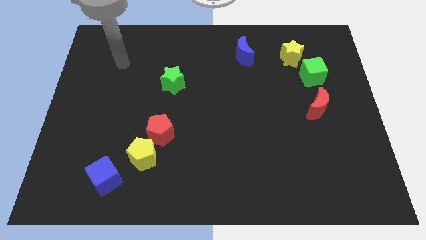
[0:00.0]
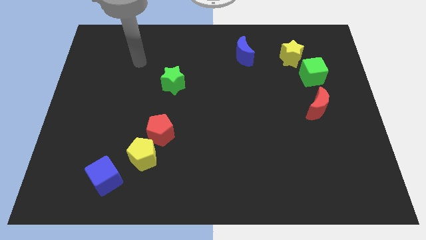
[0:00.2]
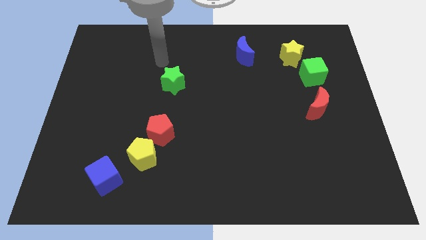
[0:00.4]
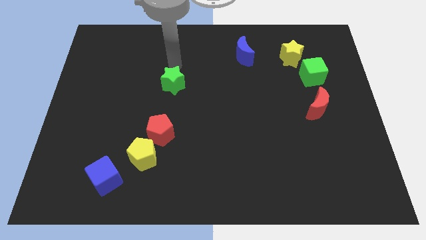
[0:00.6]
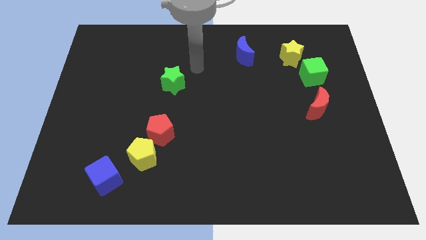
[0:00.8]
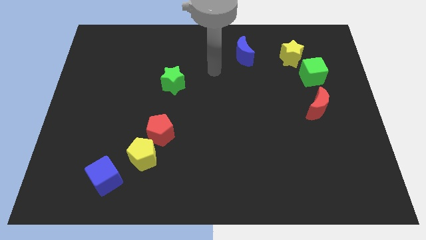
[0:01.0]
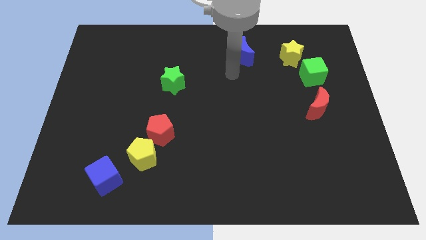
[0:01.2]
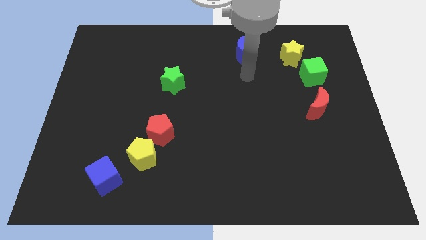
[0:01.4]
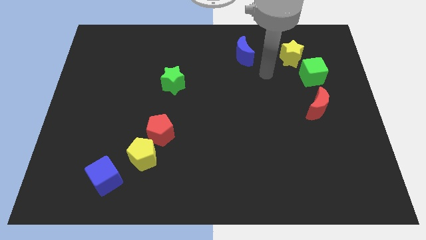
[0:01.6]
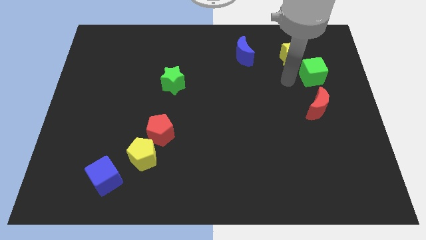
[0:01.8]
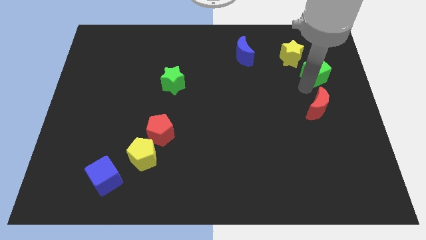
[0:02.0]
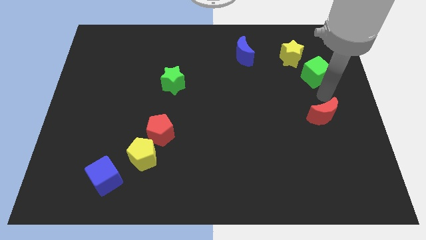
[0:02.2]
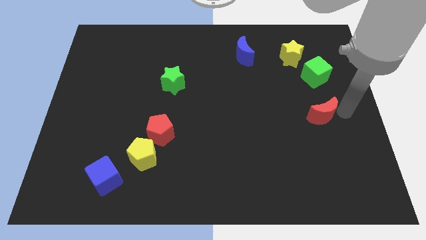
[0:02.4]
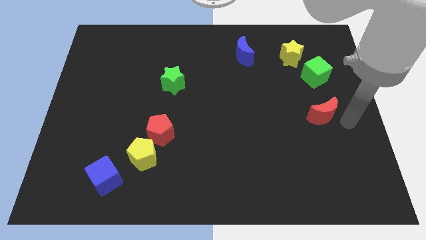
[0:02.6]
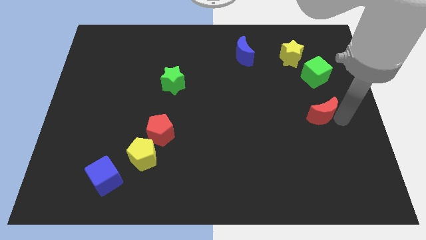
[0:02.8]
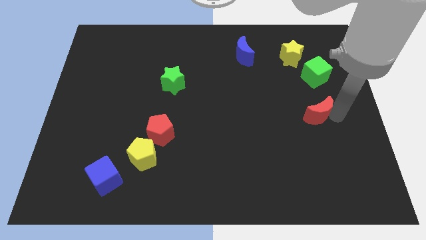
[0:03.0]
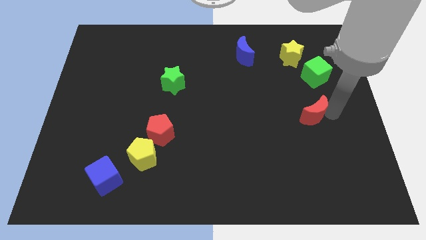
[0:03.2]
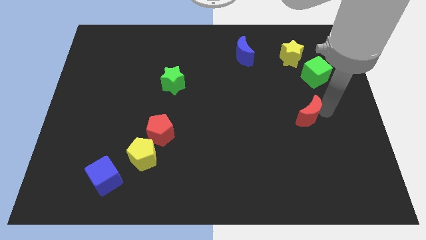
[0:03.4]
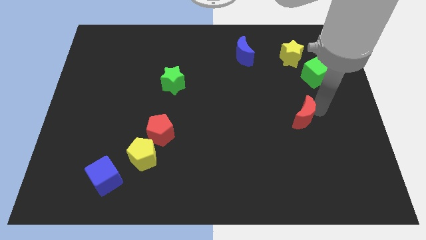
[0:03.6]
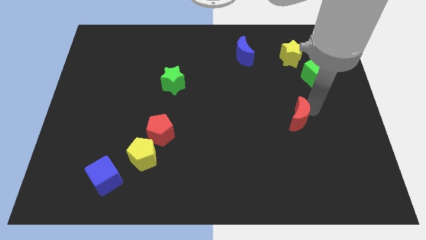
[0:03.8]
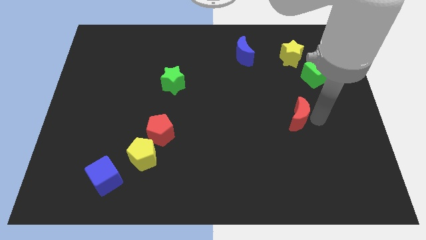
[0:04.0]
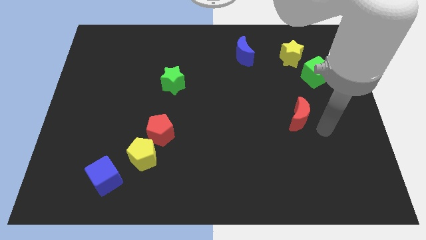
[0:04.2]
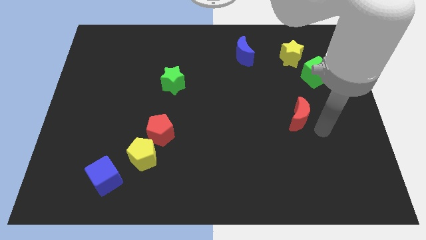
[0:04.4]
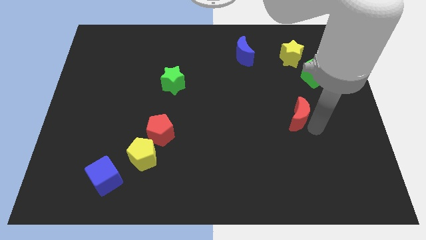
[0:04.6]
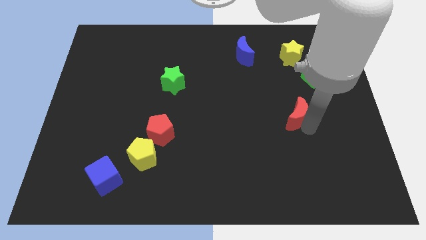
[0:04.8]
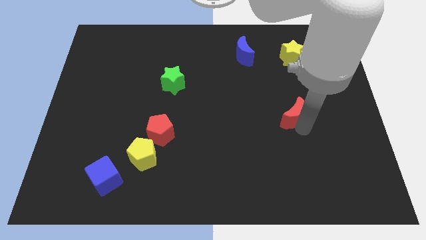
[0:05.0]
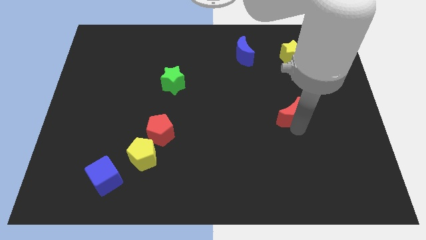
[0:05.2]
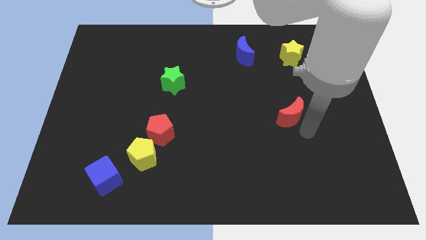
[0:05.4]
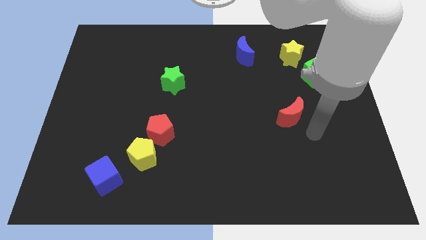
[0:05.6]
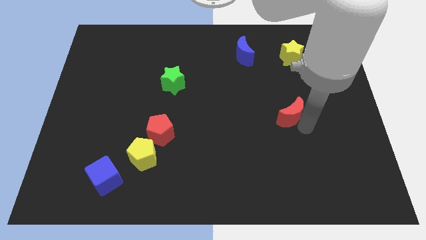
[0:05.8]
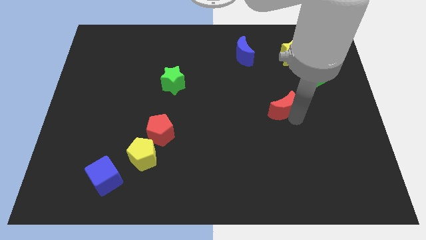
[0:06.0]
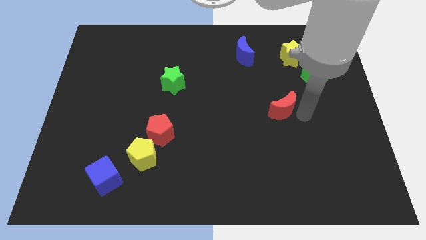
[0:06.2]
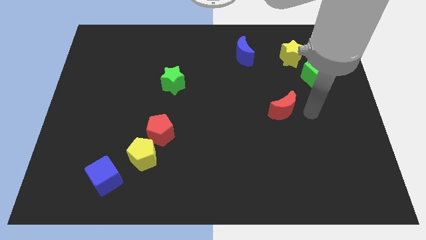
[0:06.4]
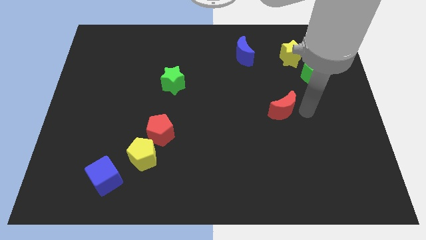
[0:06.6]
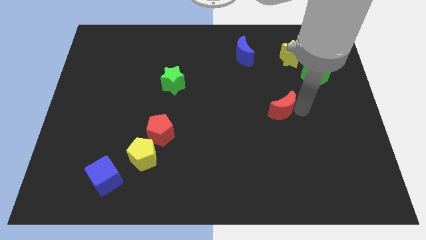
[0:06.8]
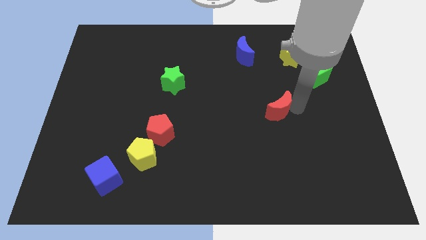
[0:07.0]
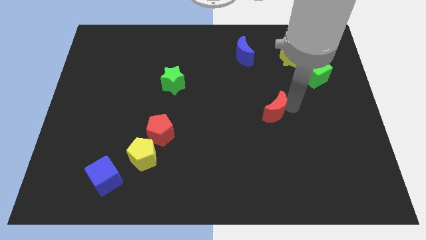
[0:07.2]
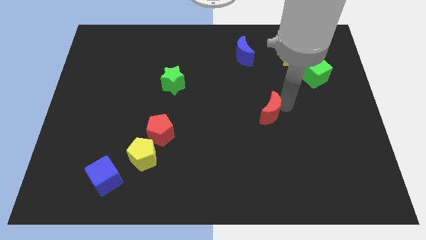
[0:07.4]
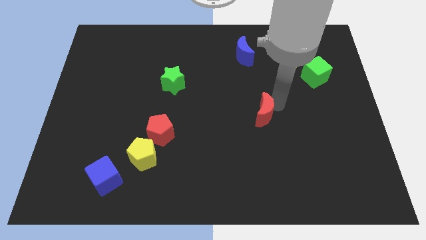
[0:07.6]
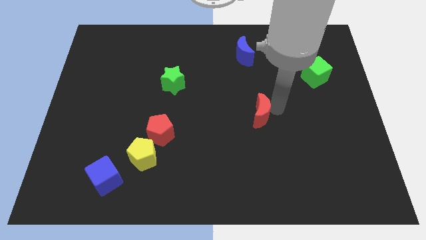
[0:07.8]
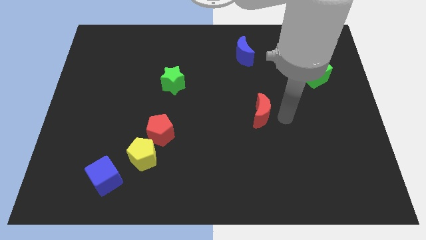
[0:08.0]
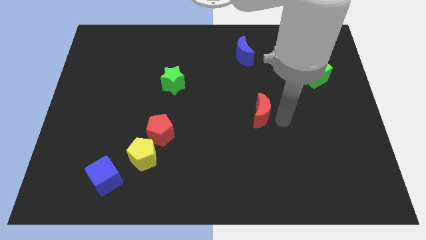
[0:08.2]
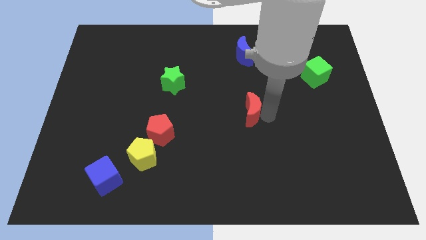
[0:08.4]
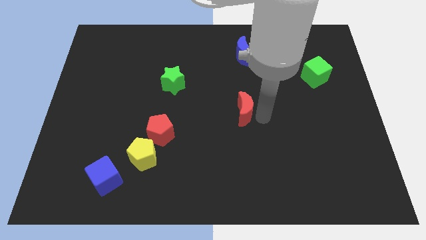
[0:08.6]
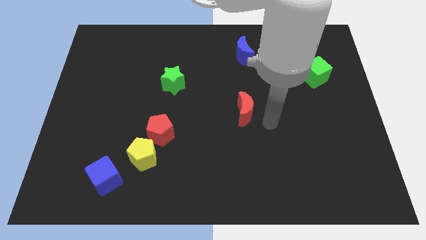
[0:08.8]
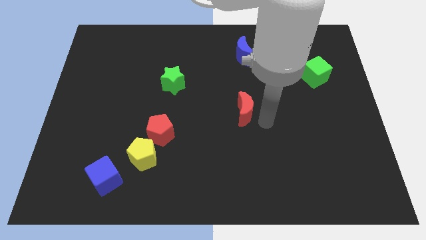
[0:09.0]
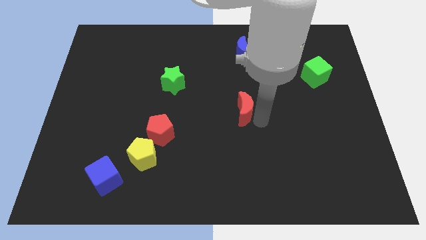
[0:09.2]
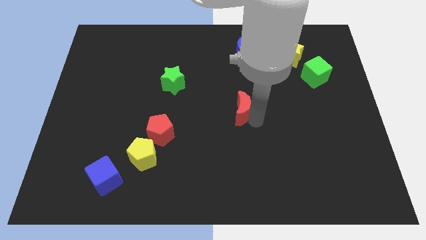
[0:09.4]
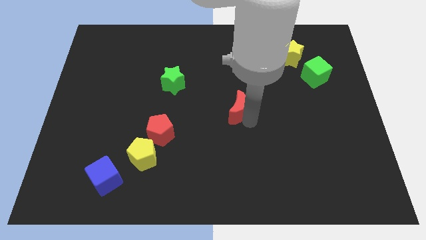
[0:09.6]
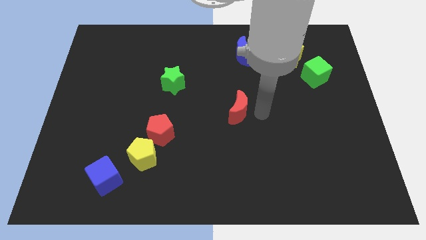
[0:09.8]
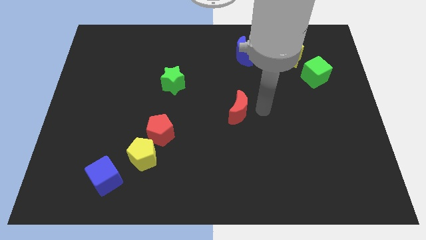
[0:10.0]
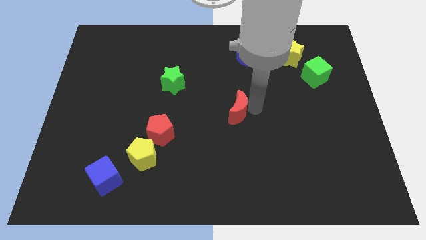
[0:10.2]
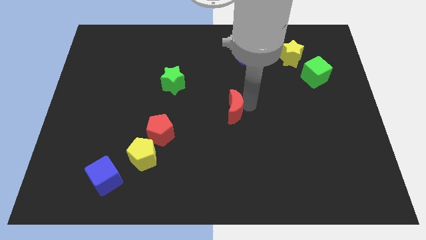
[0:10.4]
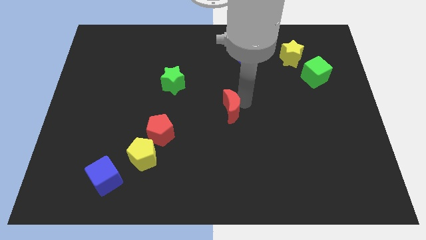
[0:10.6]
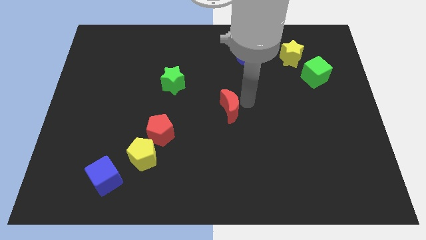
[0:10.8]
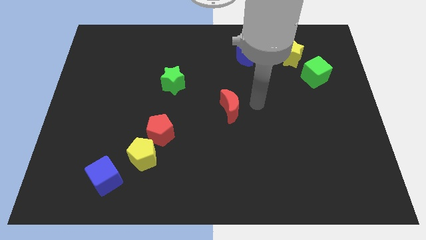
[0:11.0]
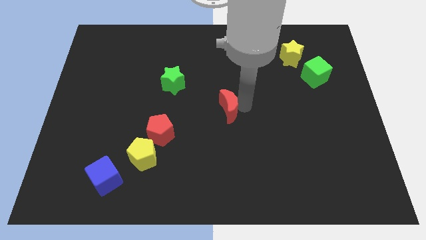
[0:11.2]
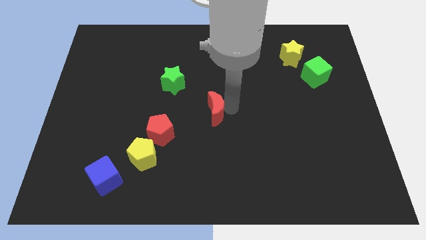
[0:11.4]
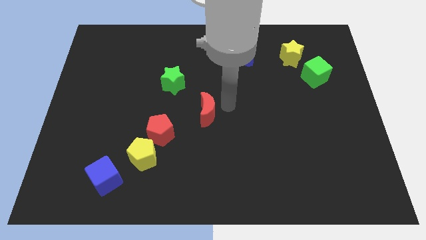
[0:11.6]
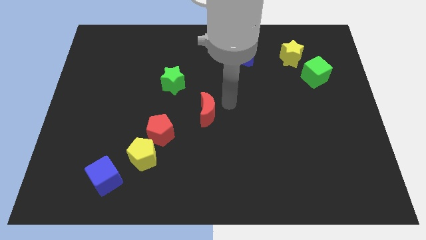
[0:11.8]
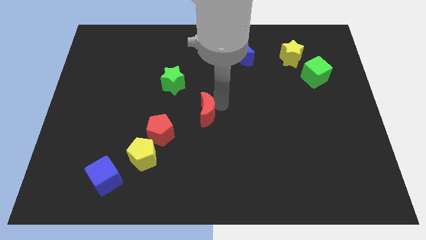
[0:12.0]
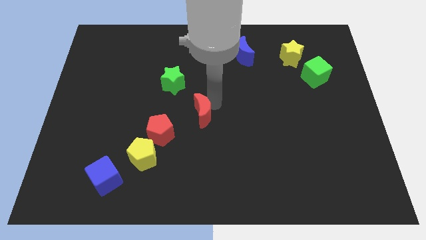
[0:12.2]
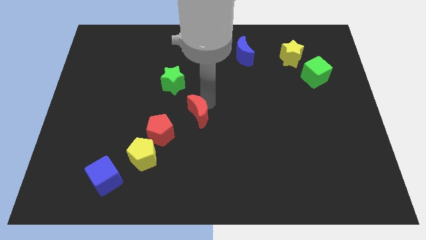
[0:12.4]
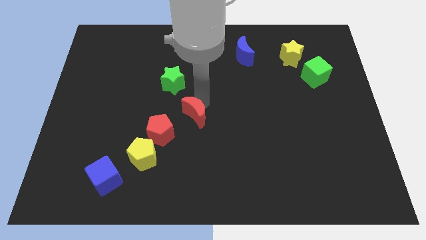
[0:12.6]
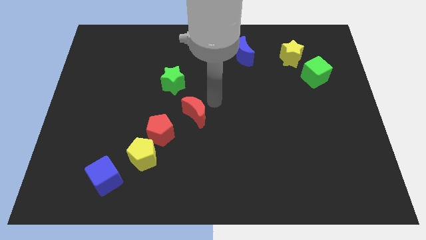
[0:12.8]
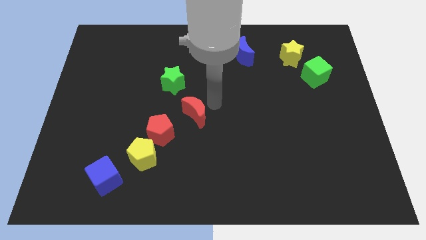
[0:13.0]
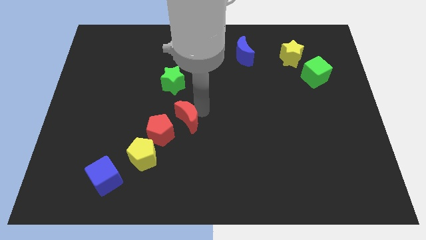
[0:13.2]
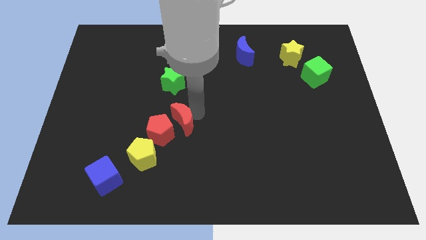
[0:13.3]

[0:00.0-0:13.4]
slide the red moon close to the red pentagon

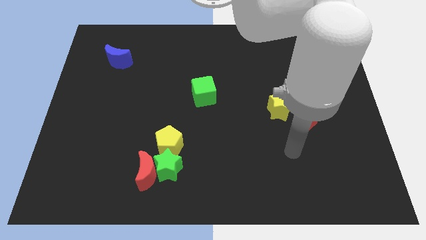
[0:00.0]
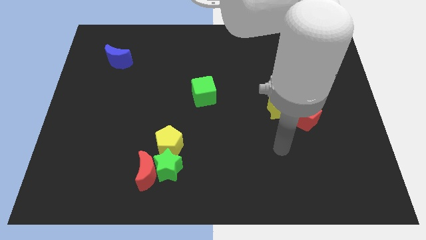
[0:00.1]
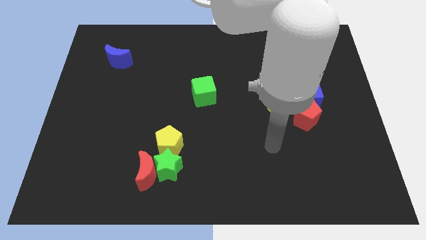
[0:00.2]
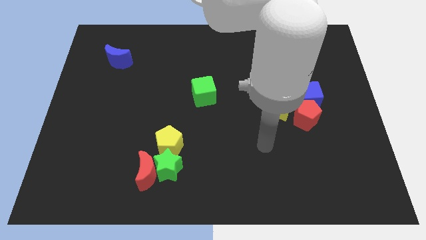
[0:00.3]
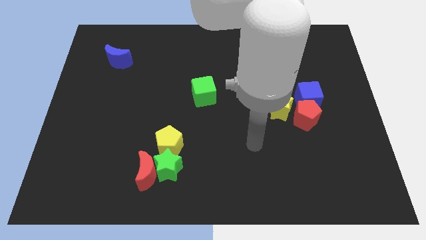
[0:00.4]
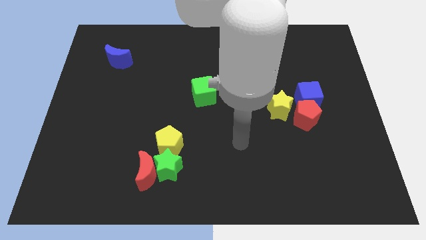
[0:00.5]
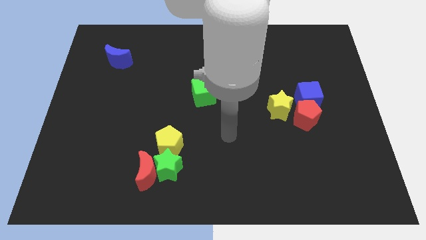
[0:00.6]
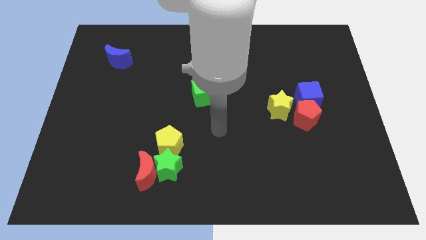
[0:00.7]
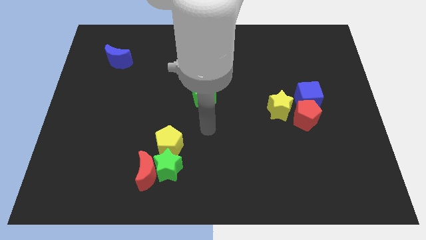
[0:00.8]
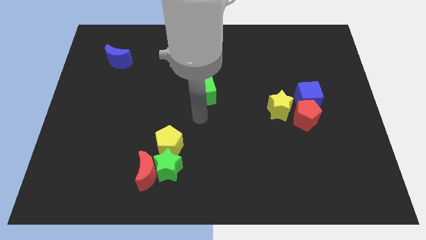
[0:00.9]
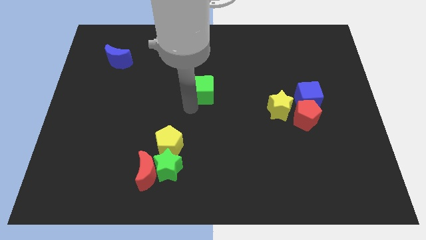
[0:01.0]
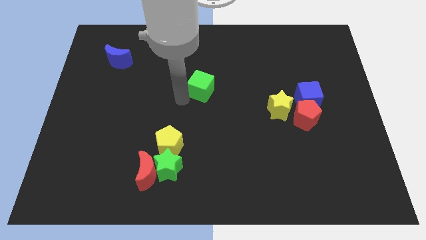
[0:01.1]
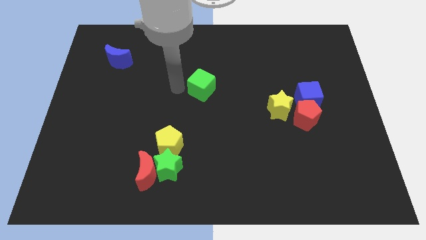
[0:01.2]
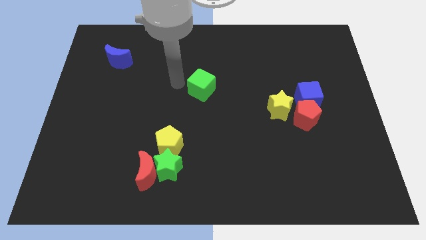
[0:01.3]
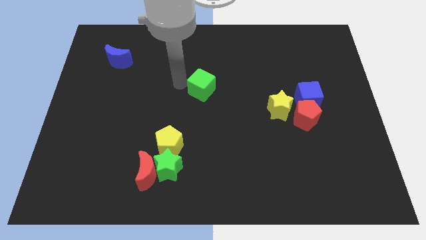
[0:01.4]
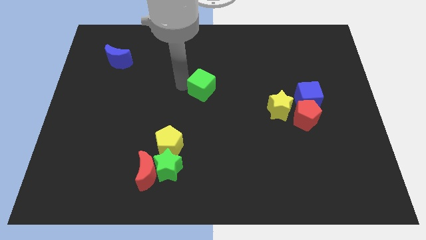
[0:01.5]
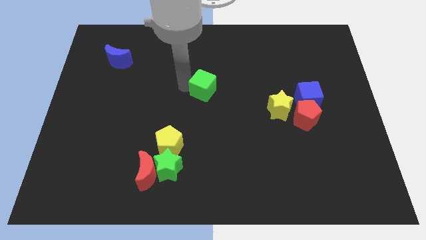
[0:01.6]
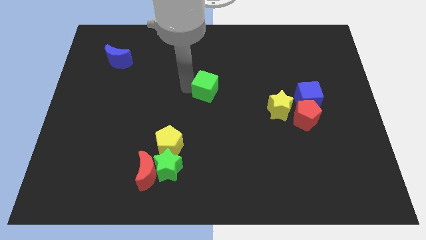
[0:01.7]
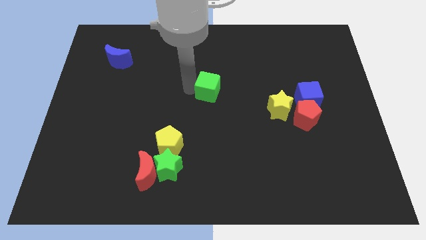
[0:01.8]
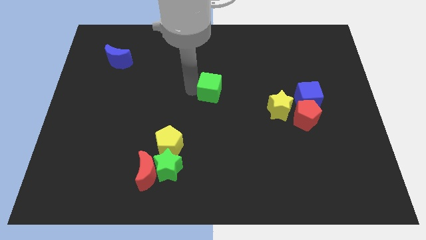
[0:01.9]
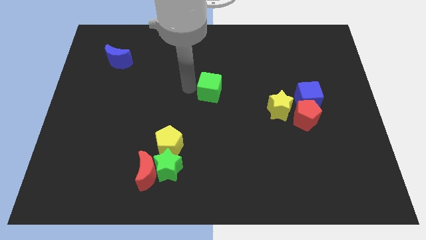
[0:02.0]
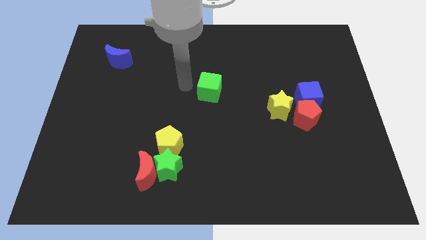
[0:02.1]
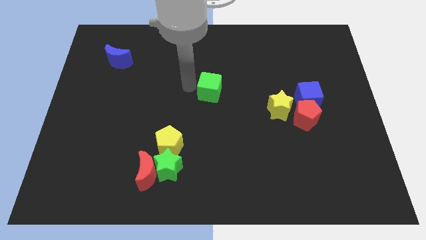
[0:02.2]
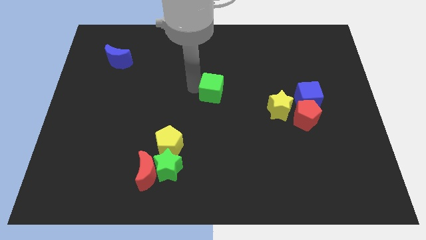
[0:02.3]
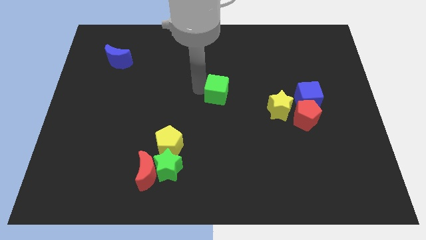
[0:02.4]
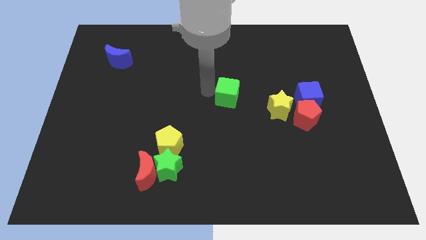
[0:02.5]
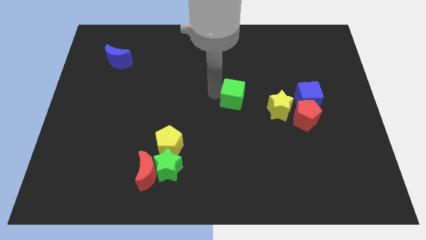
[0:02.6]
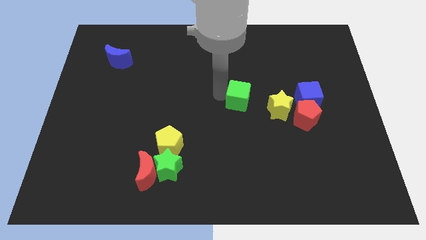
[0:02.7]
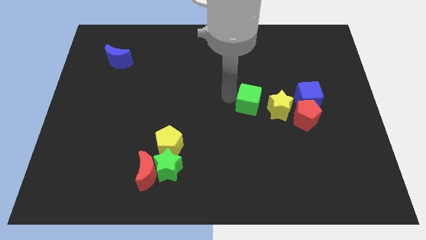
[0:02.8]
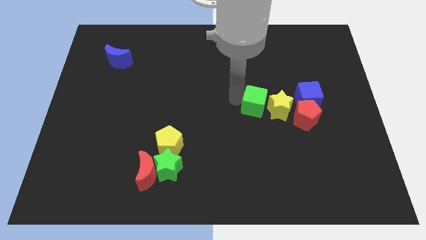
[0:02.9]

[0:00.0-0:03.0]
slide the green cube close to the yellow star
